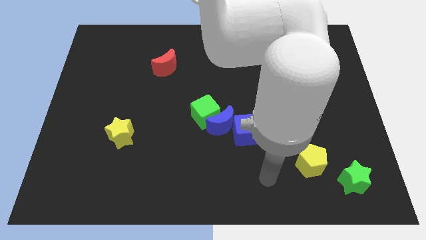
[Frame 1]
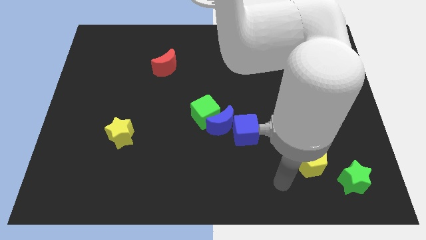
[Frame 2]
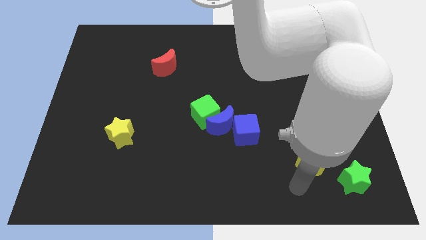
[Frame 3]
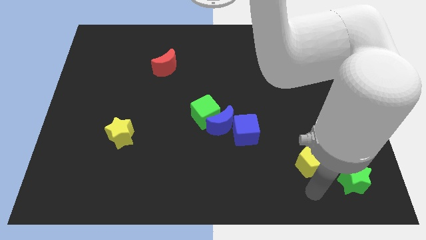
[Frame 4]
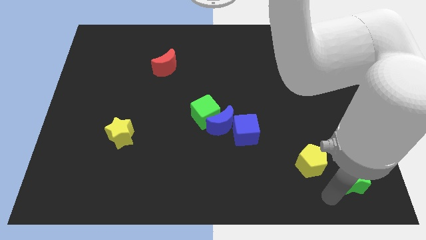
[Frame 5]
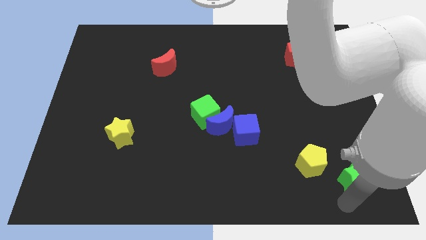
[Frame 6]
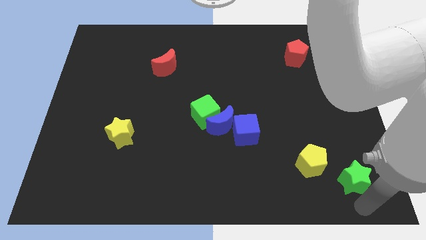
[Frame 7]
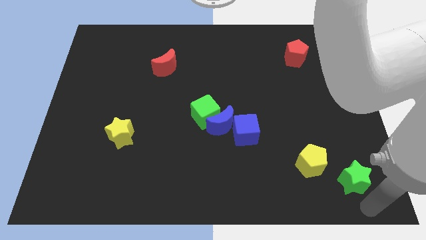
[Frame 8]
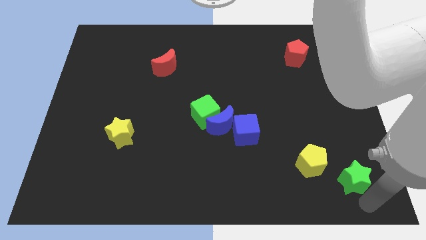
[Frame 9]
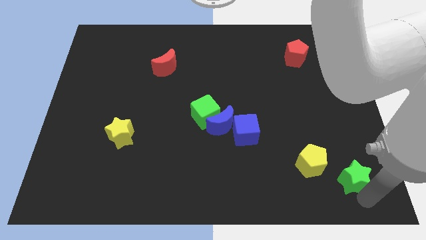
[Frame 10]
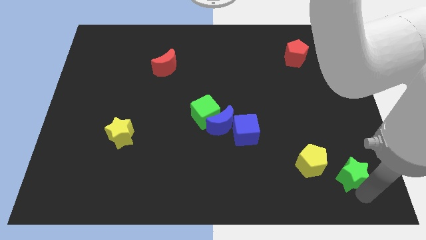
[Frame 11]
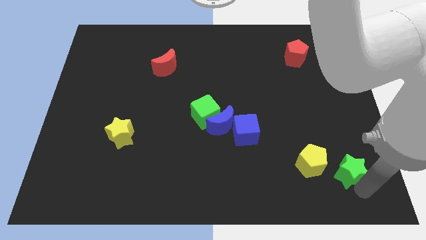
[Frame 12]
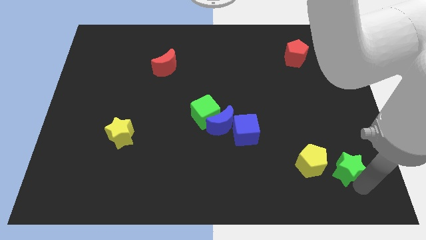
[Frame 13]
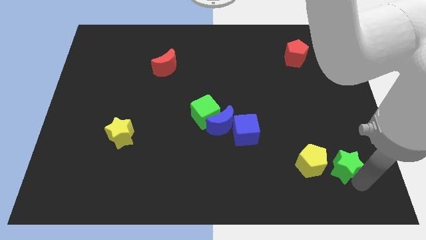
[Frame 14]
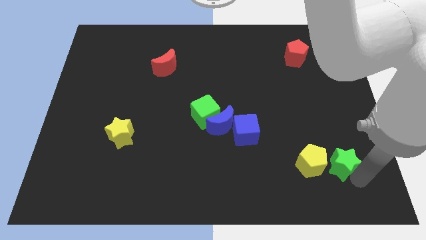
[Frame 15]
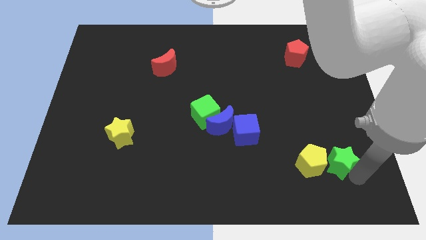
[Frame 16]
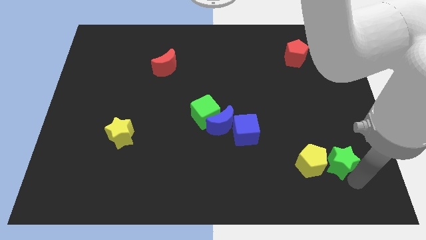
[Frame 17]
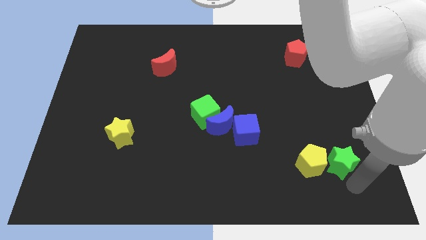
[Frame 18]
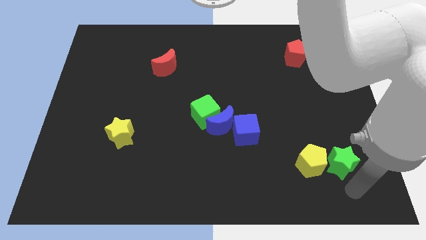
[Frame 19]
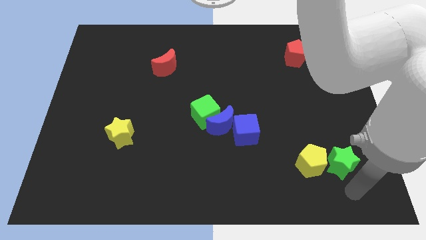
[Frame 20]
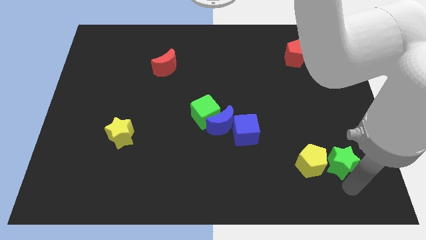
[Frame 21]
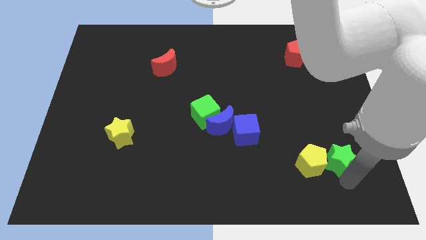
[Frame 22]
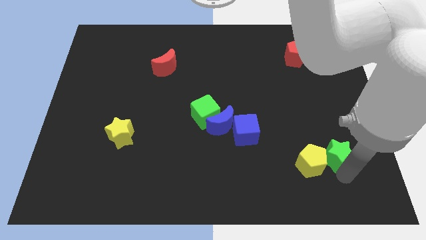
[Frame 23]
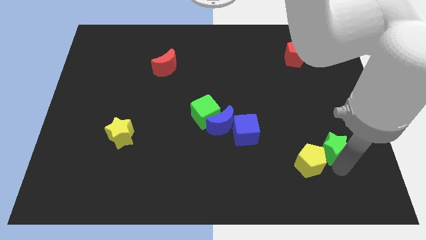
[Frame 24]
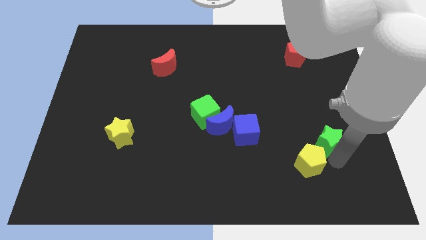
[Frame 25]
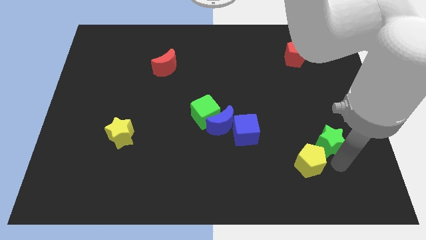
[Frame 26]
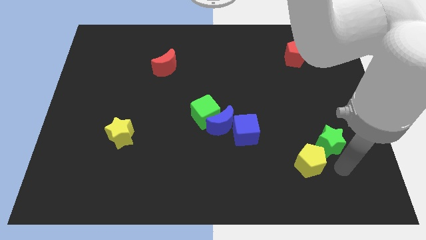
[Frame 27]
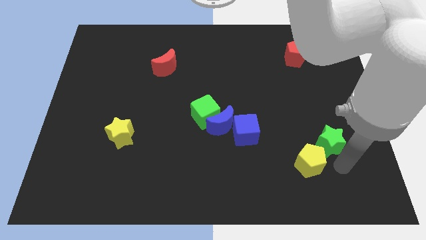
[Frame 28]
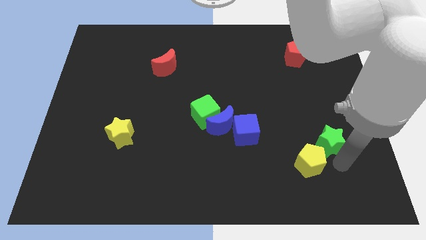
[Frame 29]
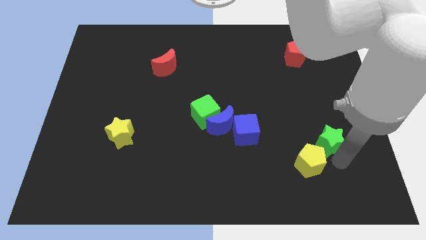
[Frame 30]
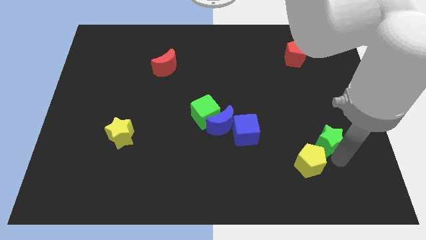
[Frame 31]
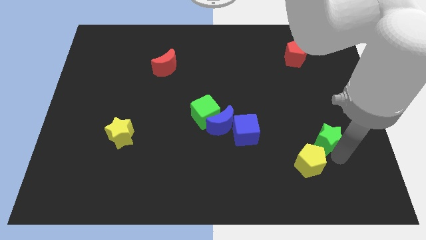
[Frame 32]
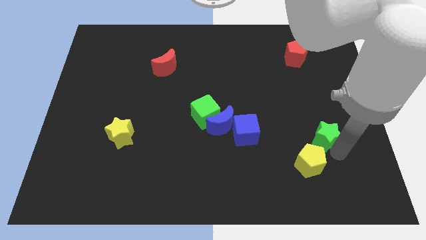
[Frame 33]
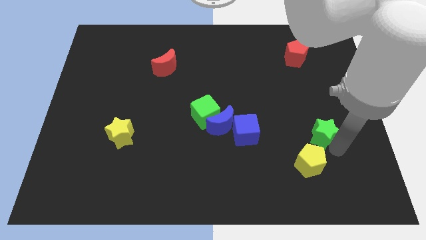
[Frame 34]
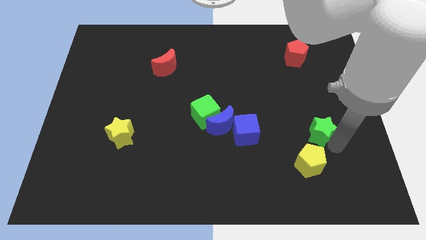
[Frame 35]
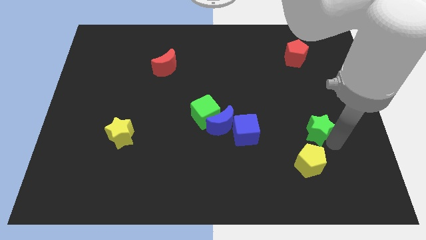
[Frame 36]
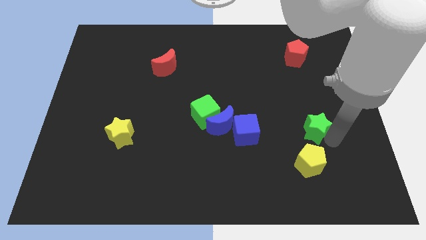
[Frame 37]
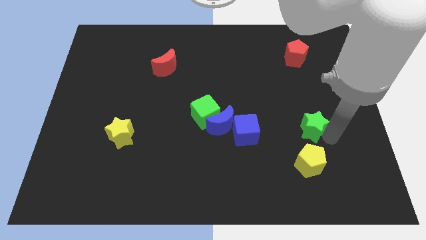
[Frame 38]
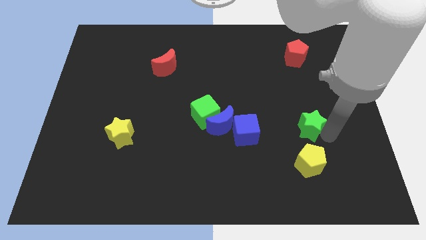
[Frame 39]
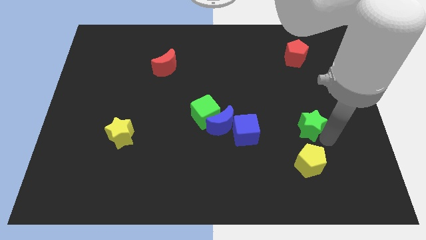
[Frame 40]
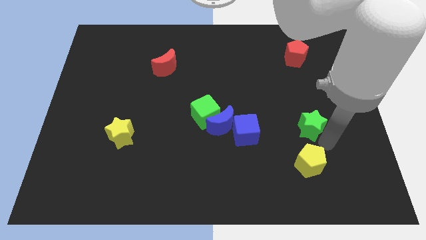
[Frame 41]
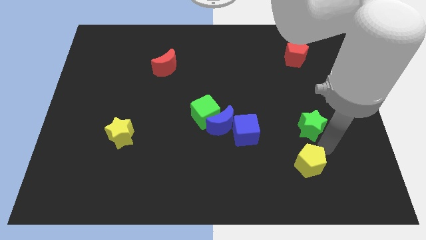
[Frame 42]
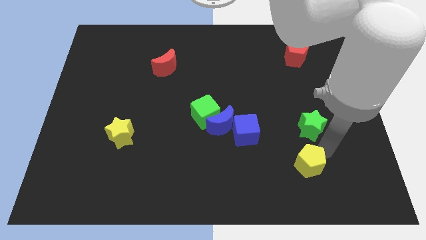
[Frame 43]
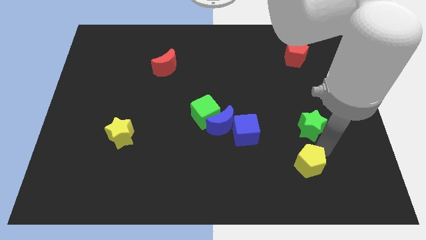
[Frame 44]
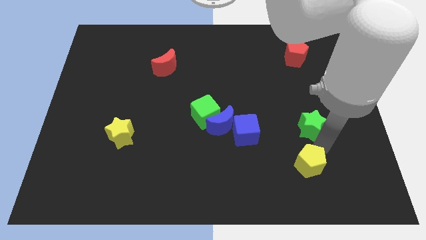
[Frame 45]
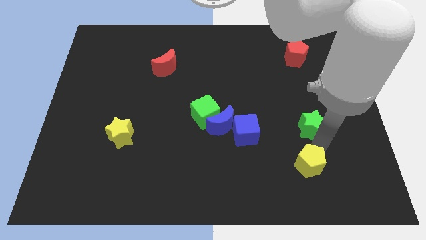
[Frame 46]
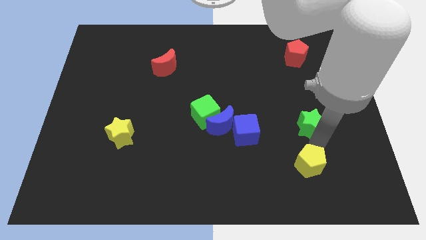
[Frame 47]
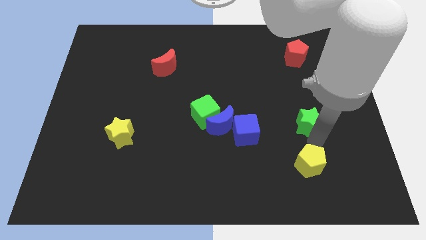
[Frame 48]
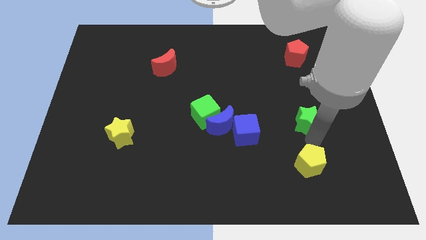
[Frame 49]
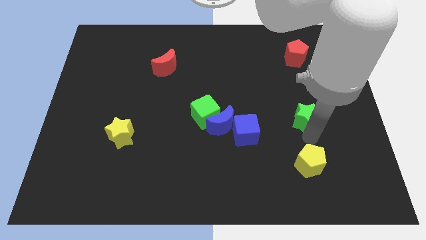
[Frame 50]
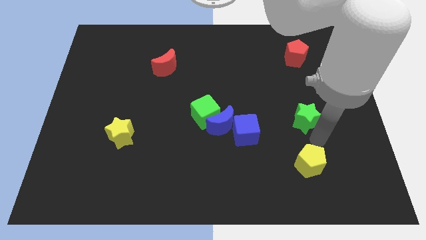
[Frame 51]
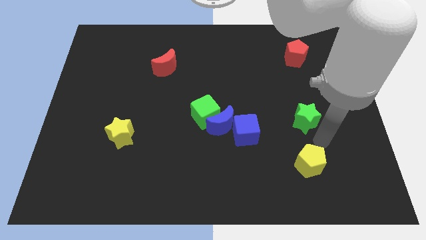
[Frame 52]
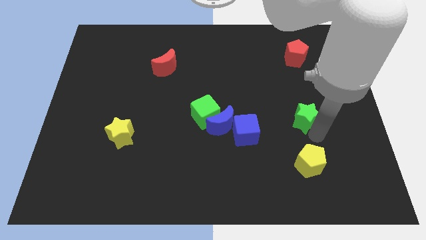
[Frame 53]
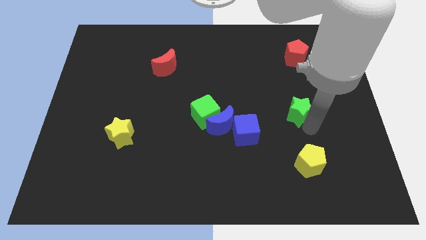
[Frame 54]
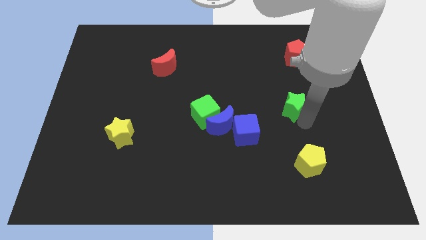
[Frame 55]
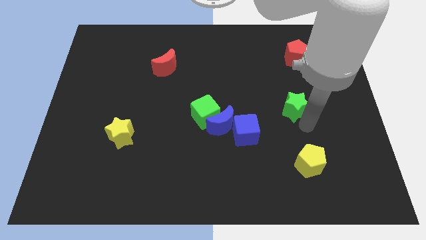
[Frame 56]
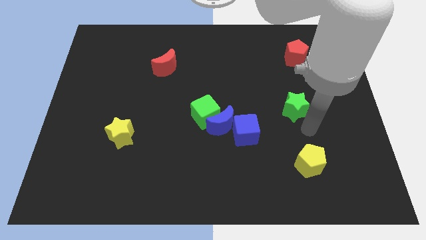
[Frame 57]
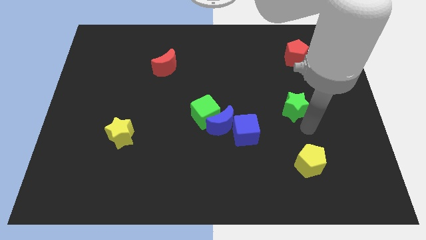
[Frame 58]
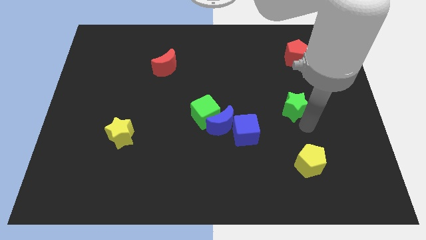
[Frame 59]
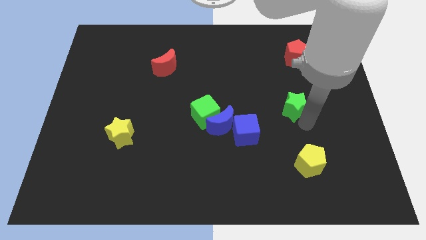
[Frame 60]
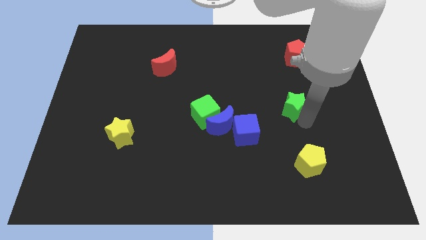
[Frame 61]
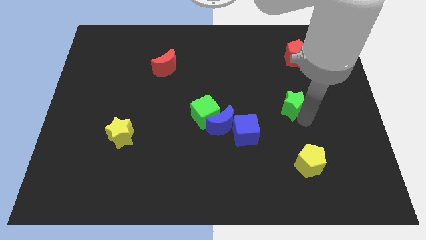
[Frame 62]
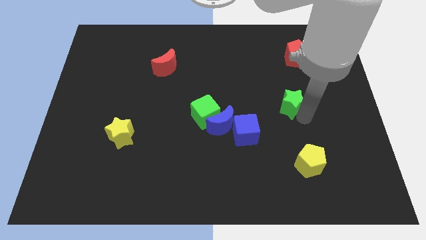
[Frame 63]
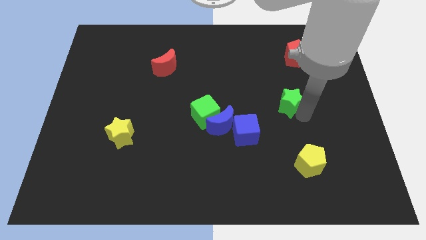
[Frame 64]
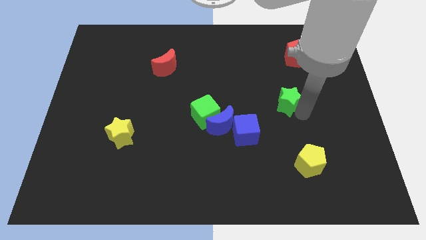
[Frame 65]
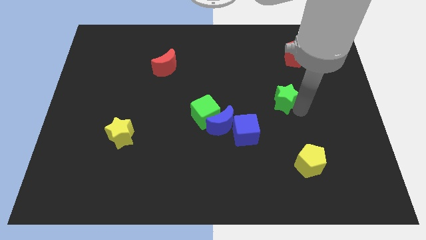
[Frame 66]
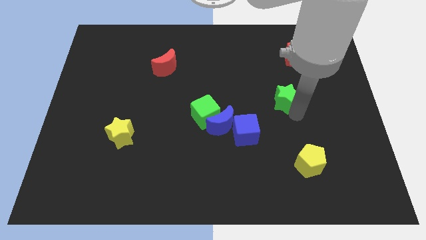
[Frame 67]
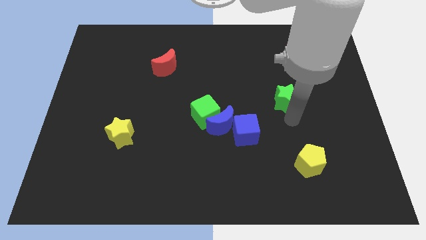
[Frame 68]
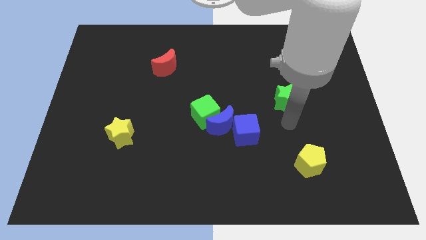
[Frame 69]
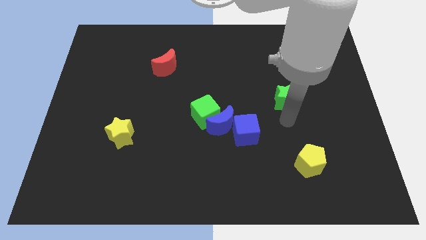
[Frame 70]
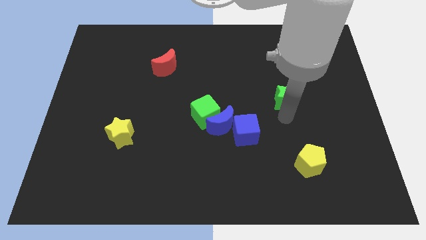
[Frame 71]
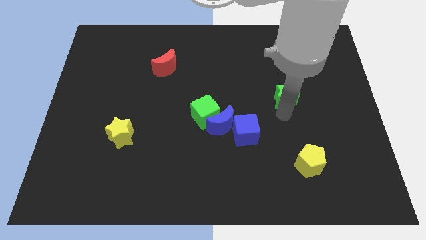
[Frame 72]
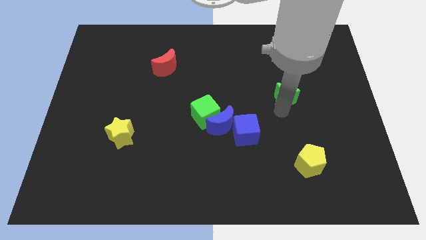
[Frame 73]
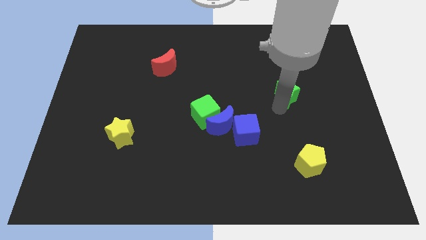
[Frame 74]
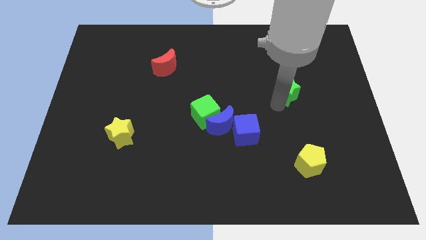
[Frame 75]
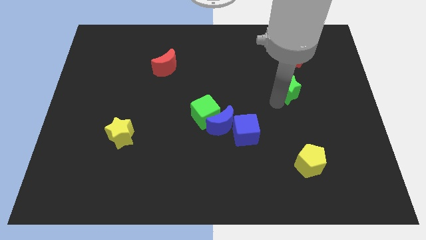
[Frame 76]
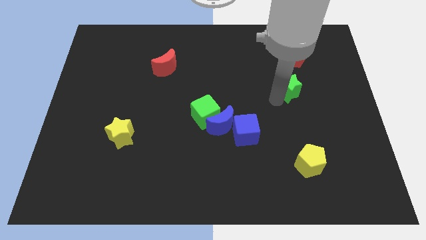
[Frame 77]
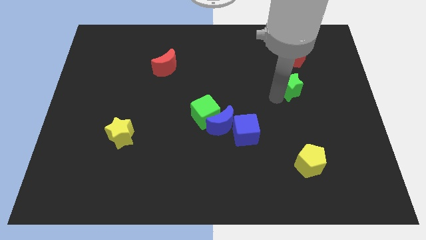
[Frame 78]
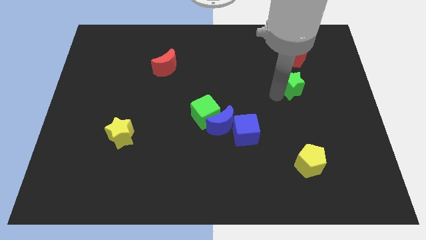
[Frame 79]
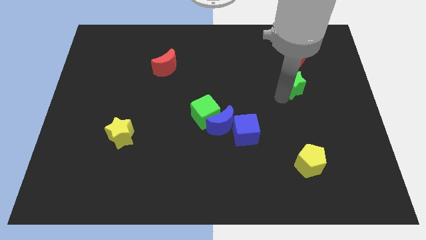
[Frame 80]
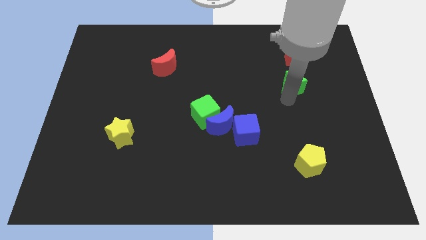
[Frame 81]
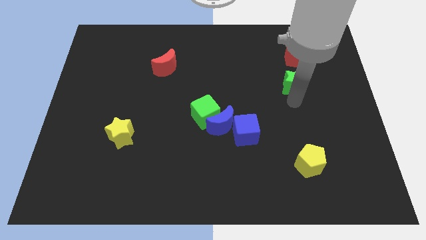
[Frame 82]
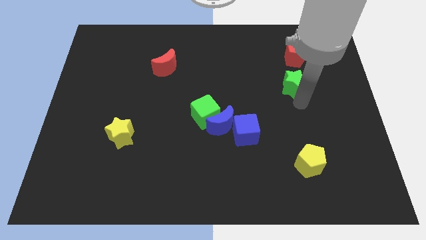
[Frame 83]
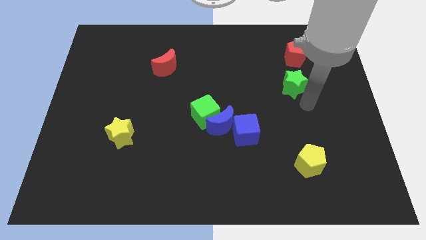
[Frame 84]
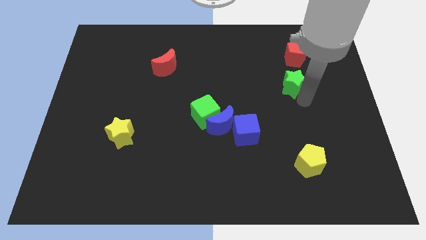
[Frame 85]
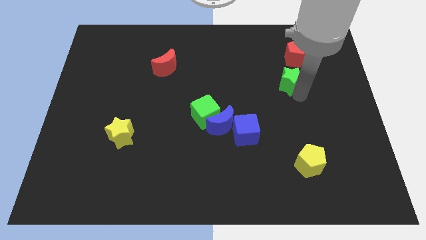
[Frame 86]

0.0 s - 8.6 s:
move the green star to the bottom left of the red pentagon
